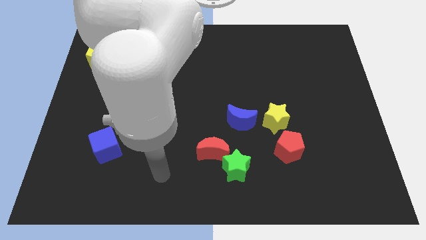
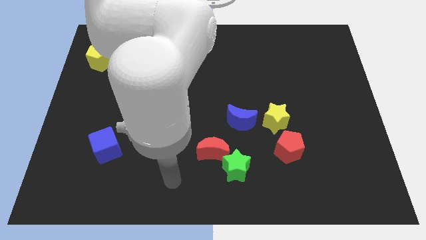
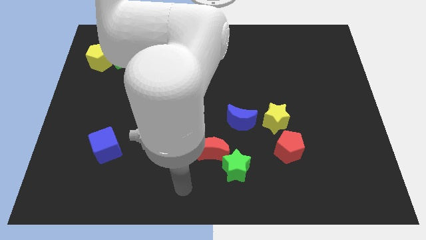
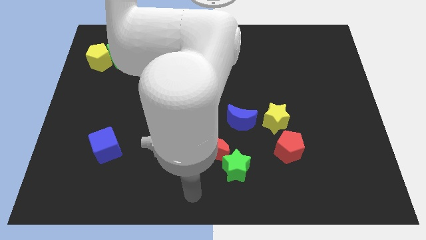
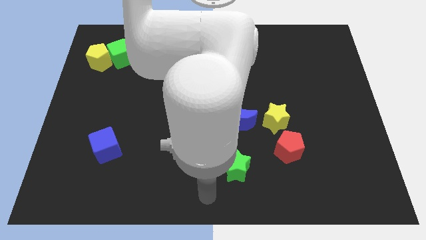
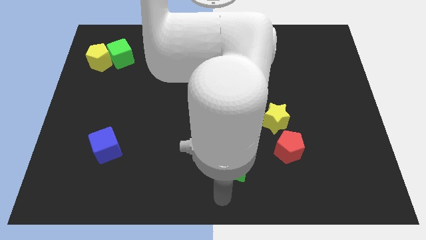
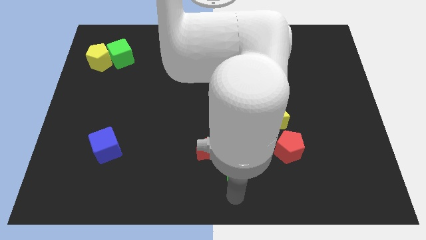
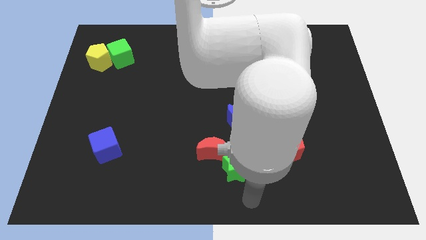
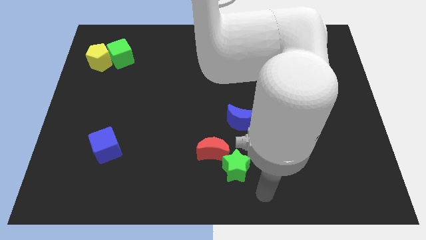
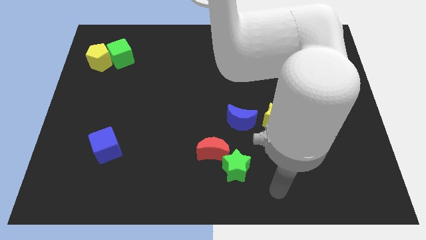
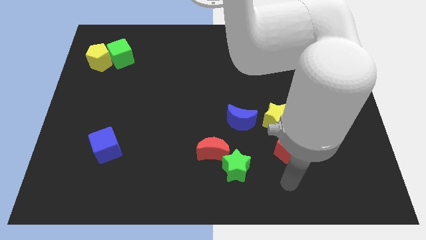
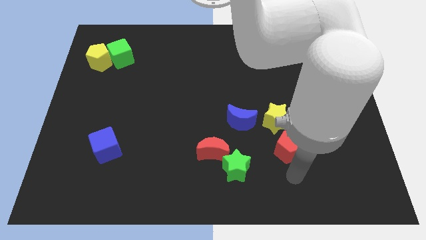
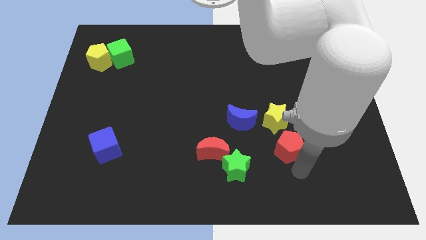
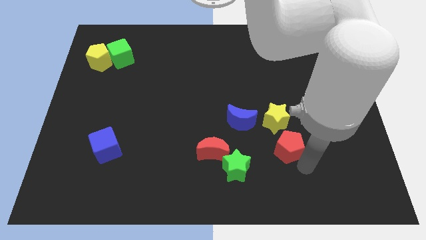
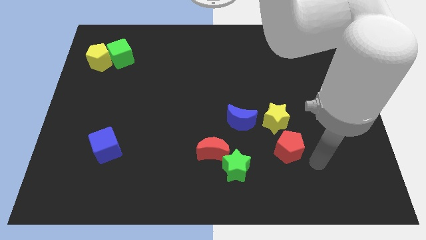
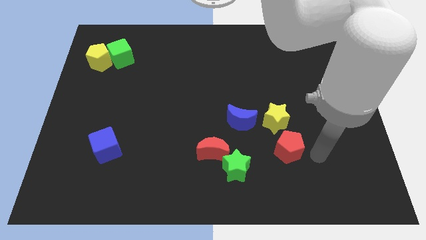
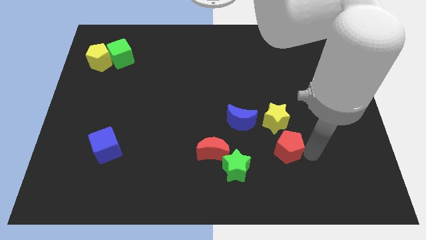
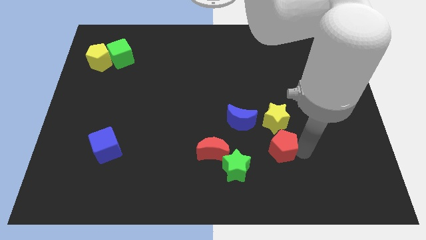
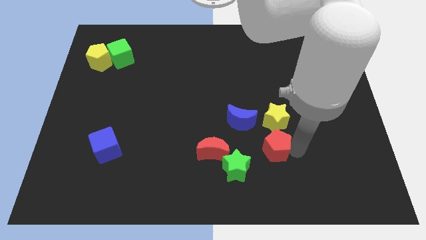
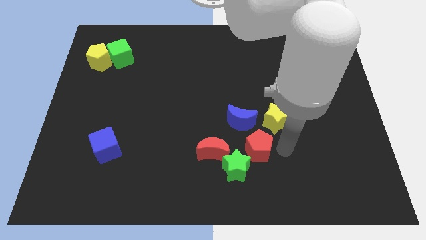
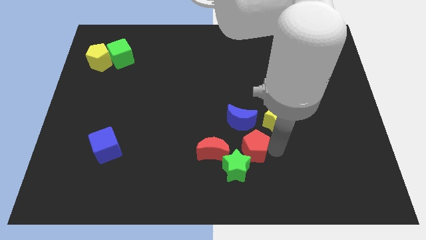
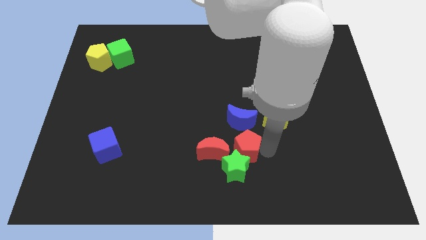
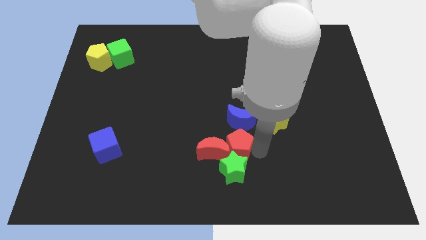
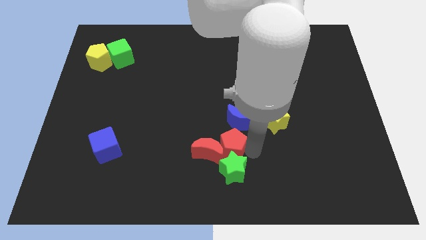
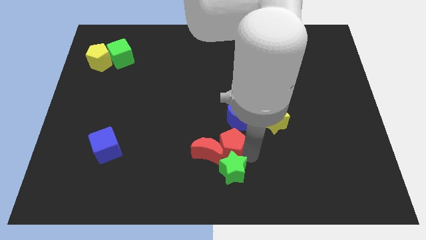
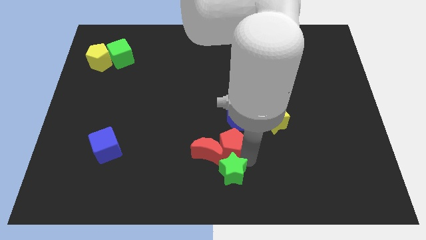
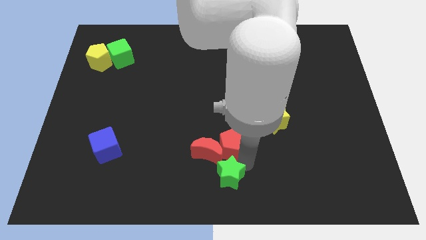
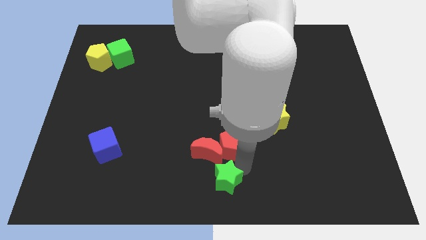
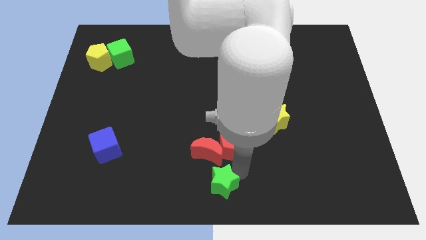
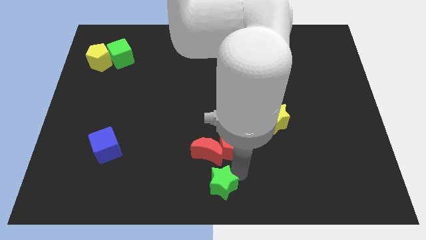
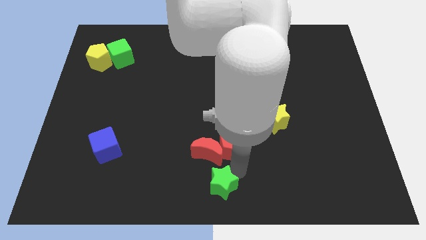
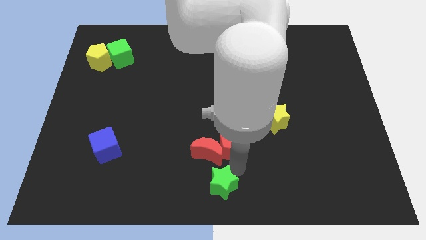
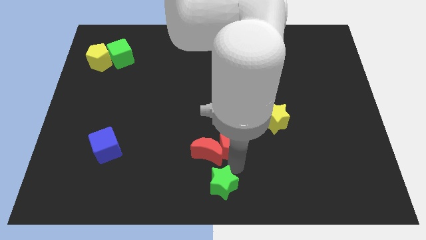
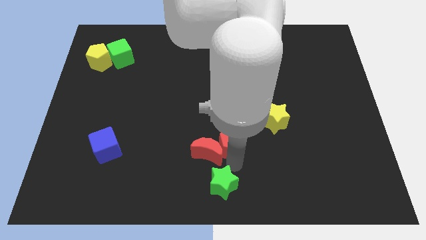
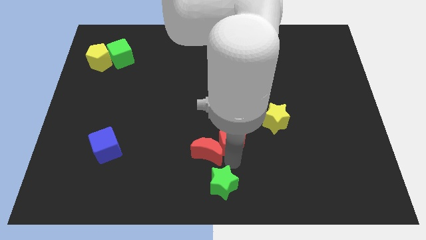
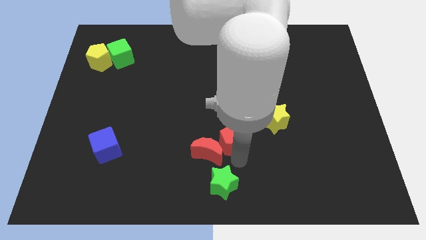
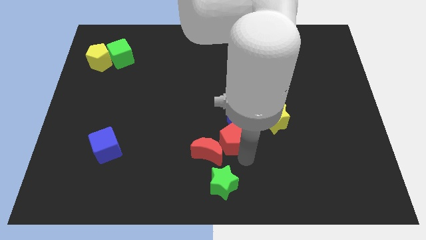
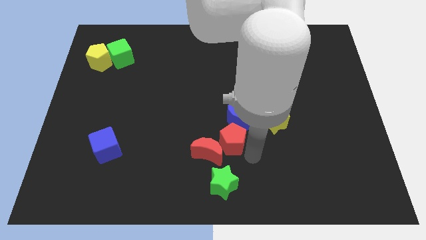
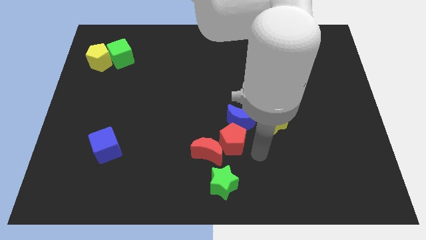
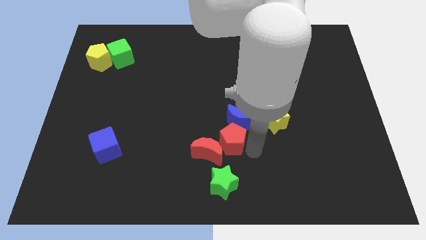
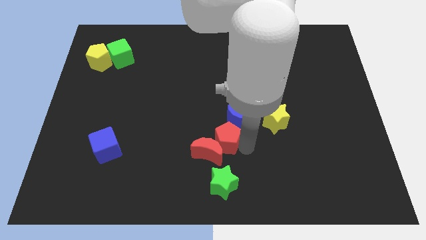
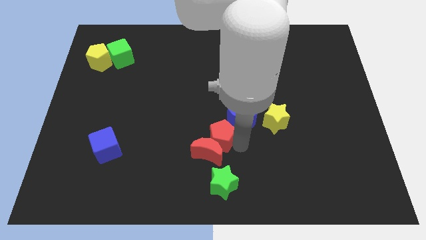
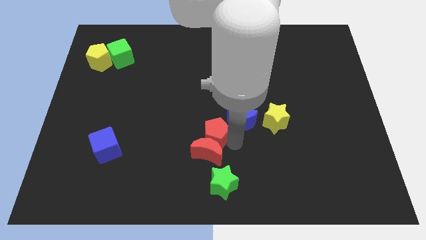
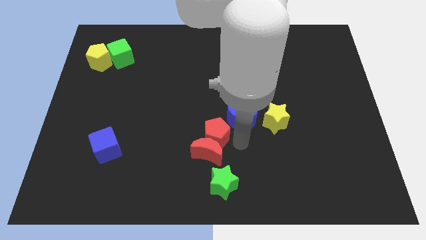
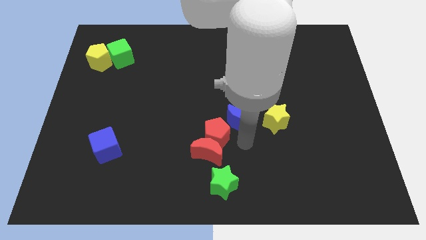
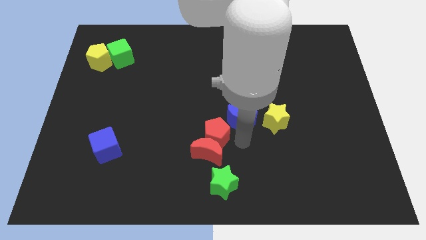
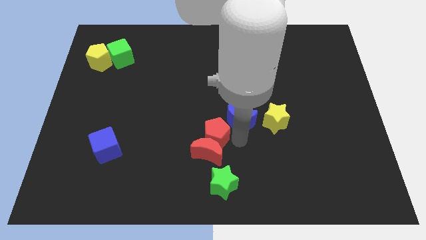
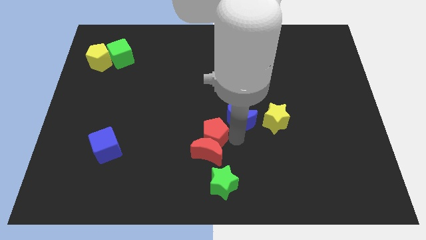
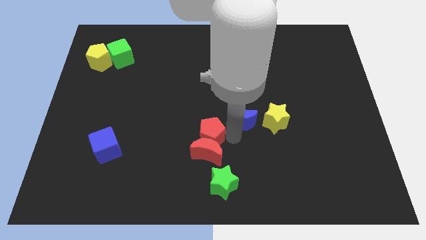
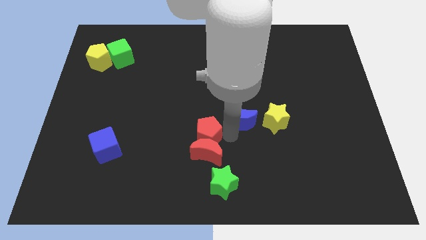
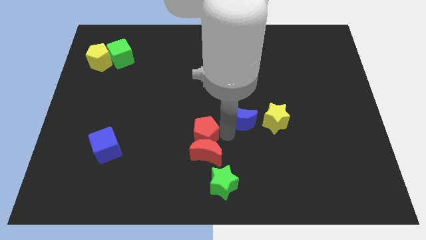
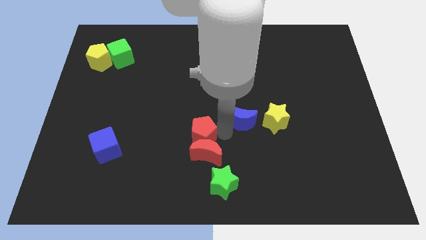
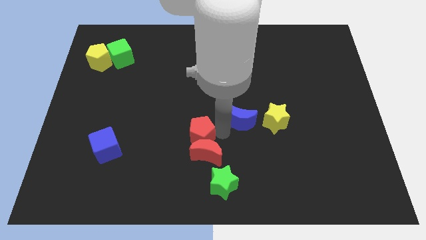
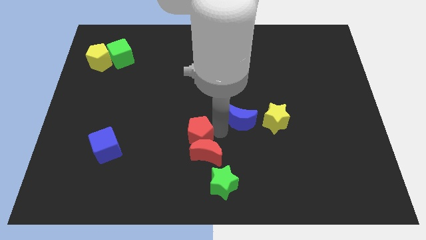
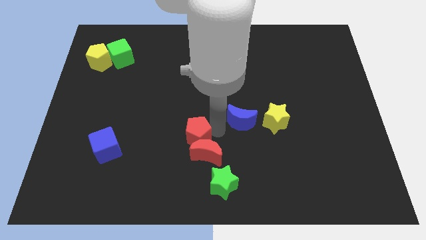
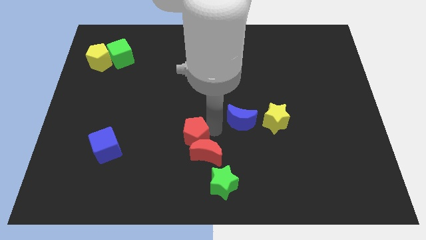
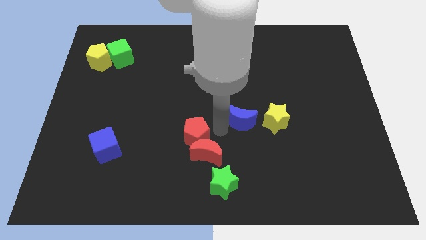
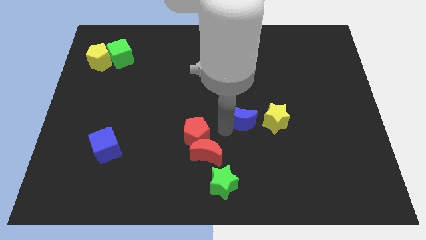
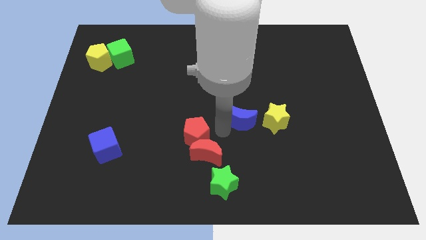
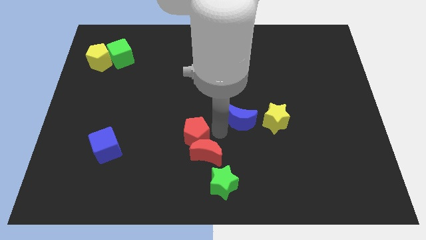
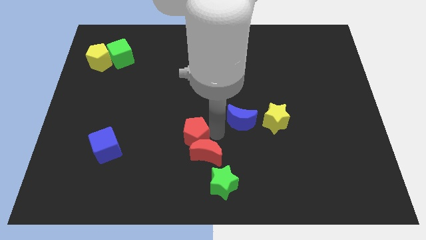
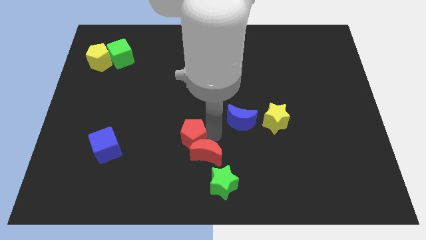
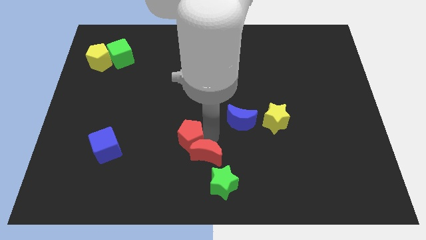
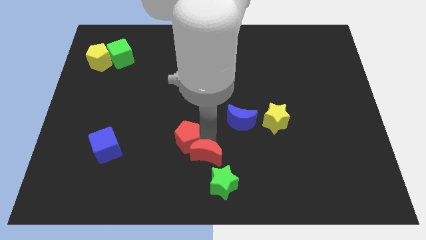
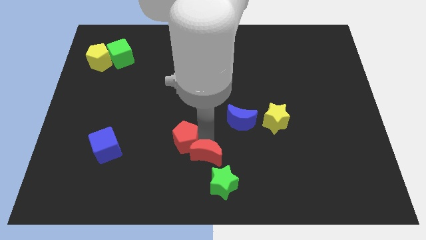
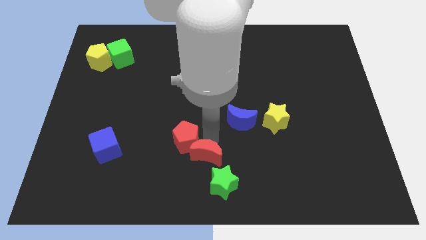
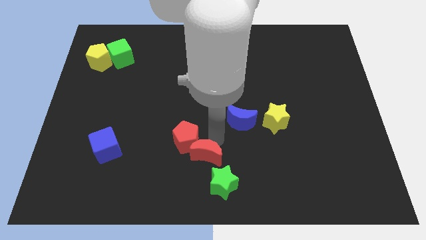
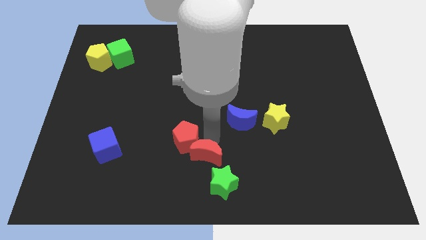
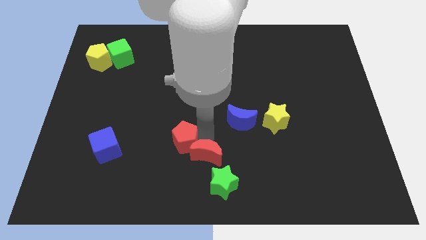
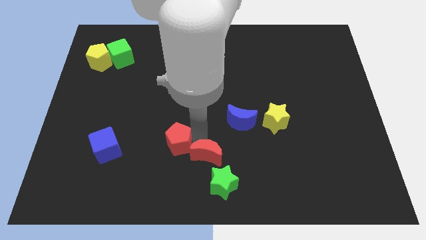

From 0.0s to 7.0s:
slide the red pentagon just right of the blue cube
